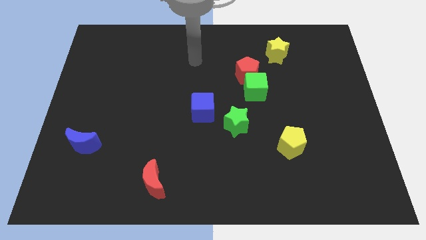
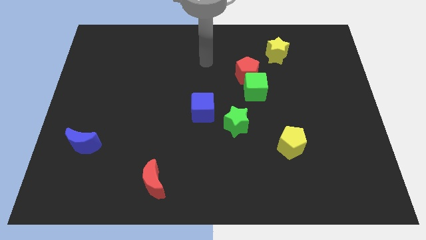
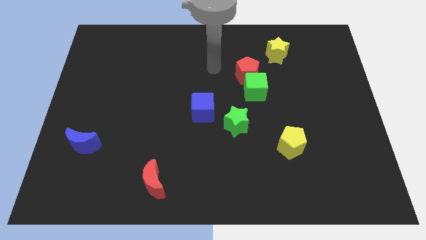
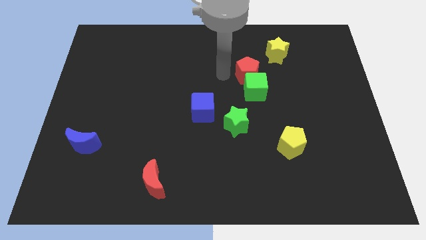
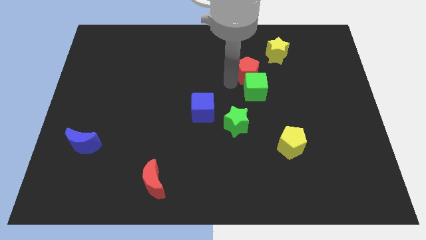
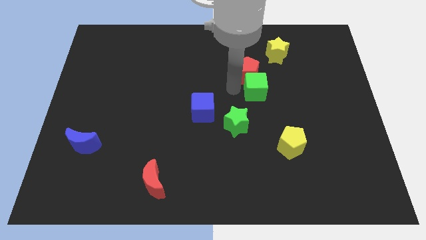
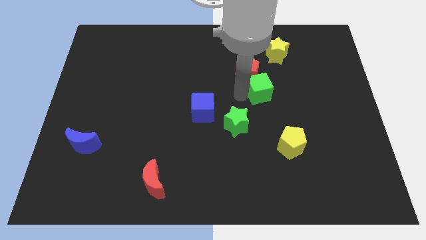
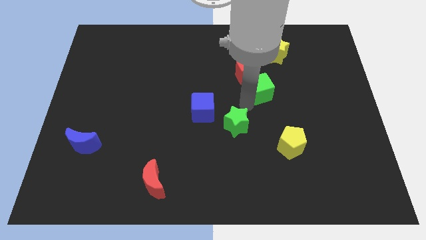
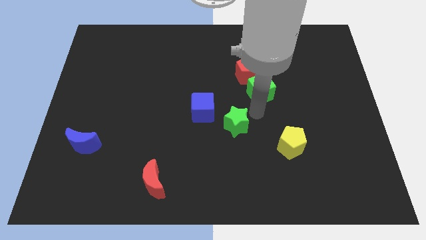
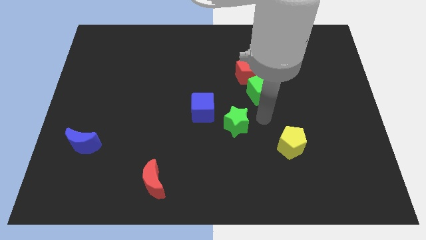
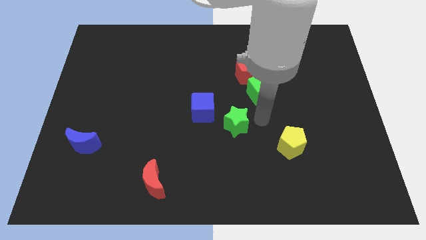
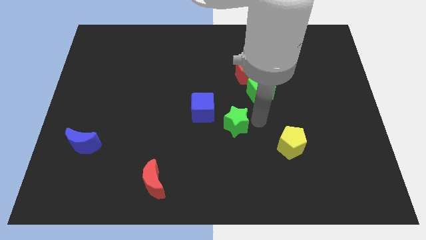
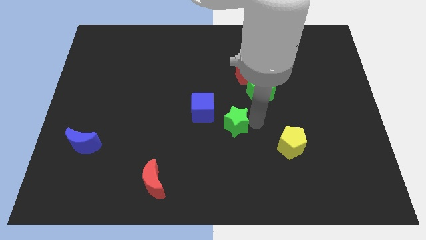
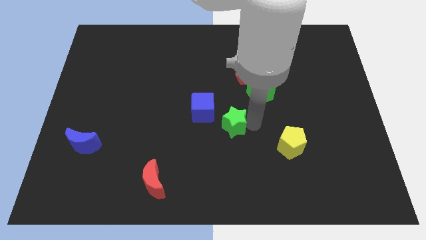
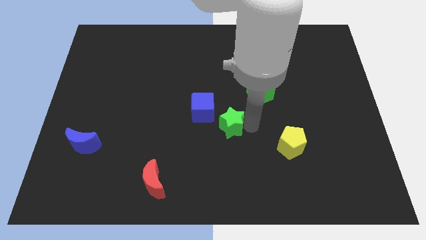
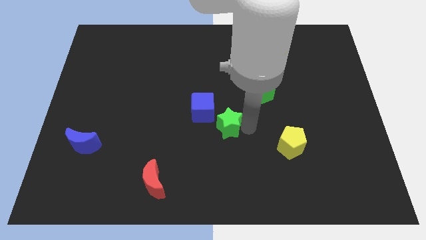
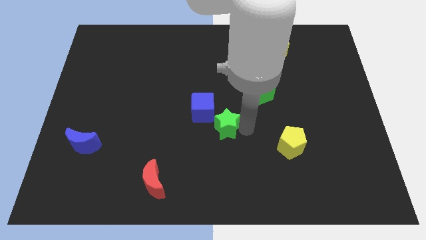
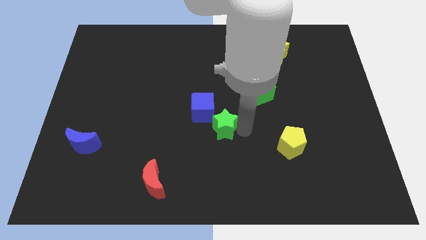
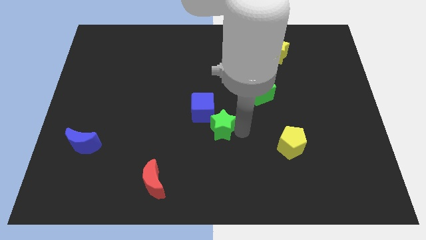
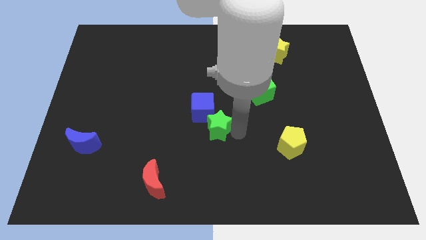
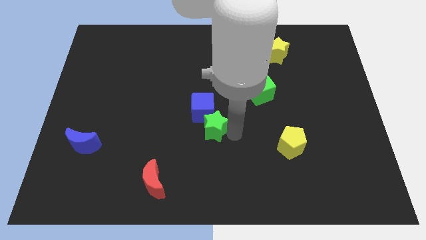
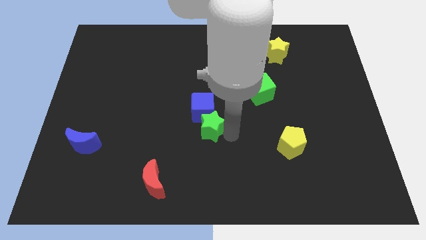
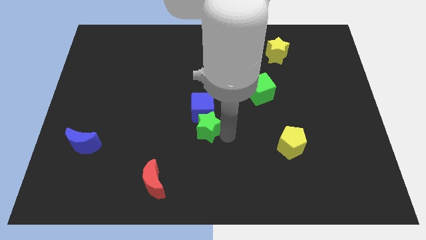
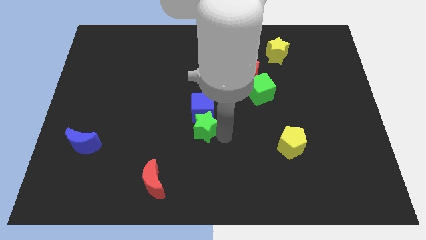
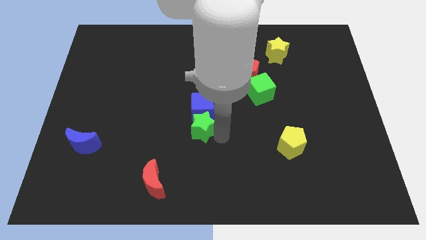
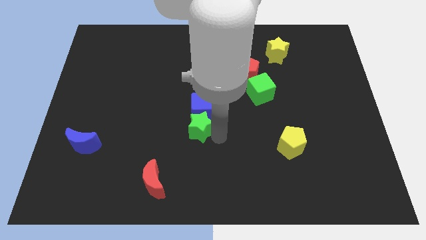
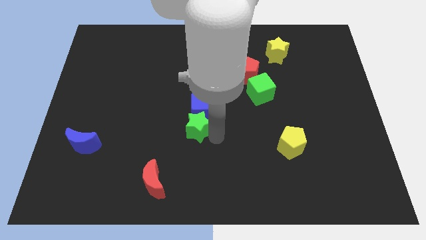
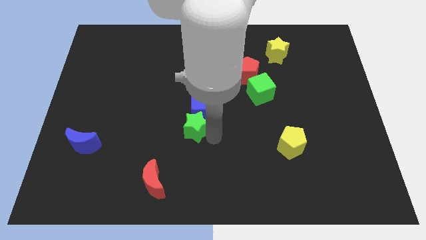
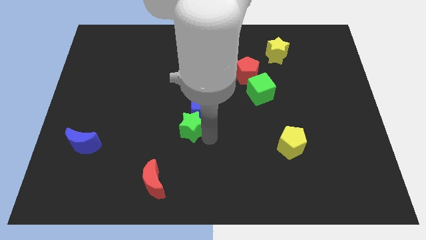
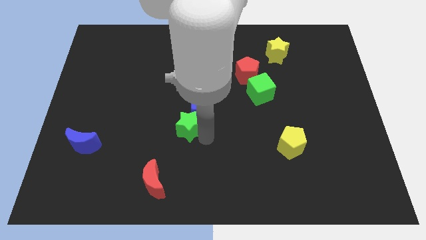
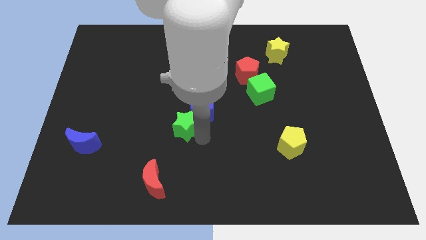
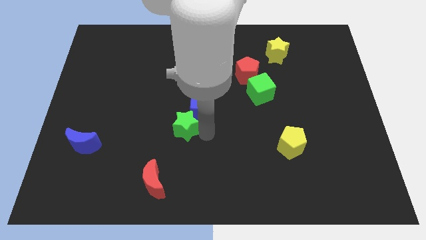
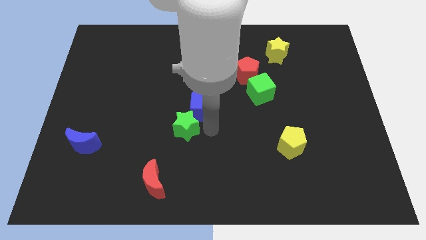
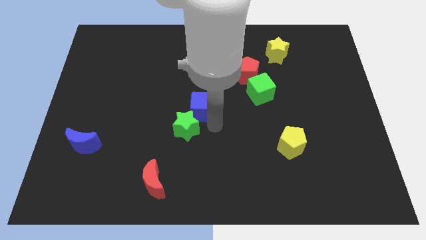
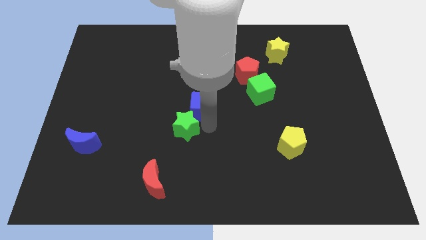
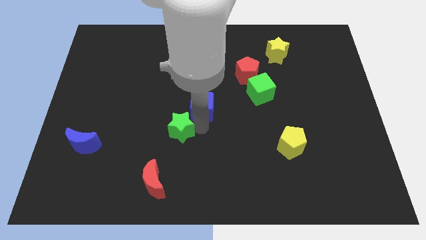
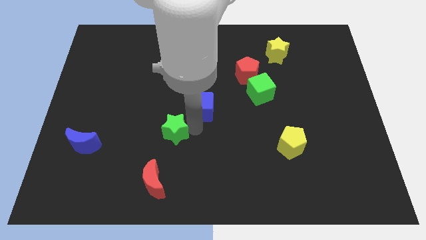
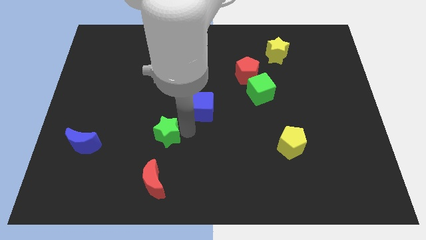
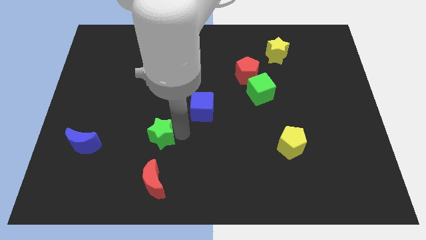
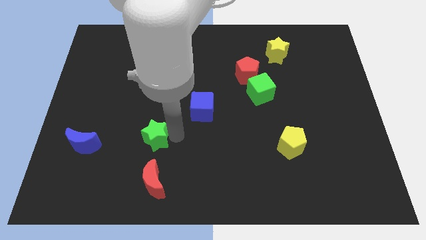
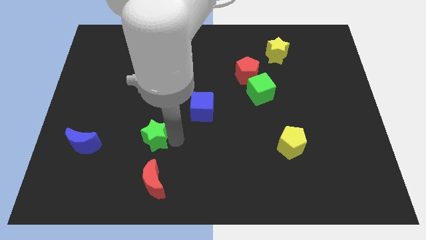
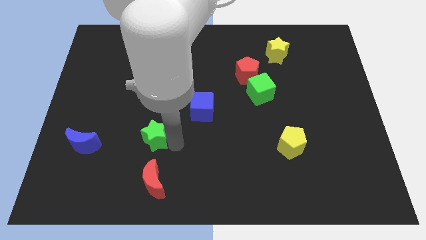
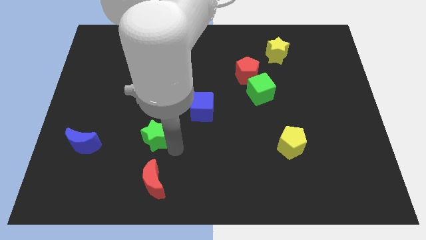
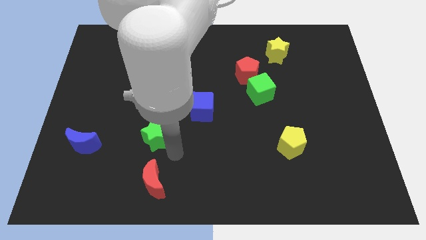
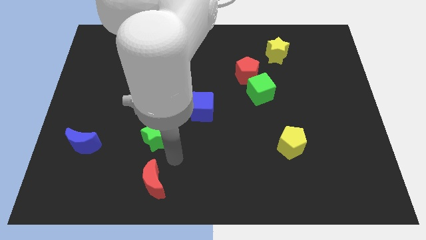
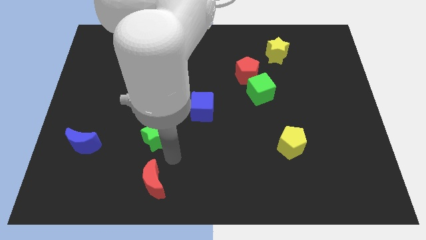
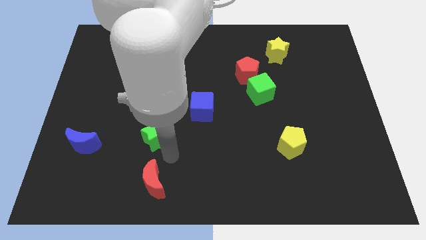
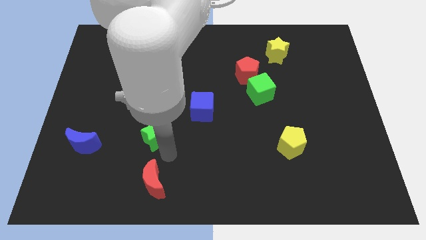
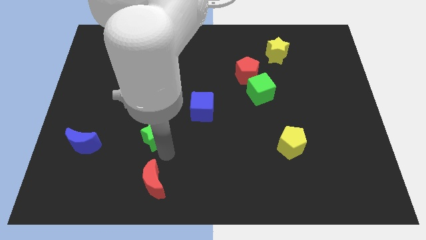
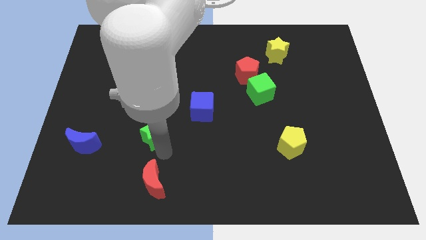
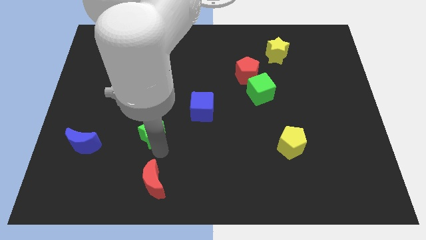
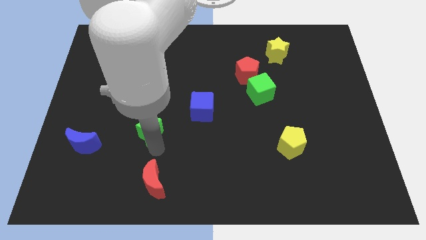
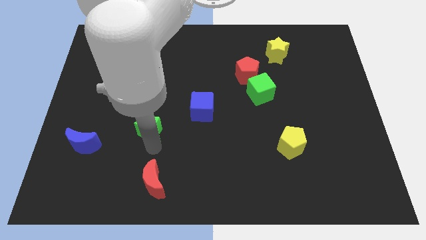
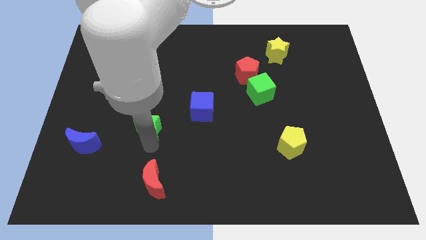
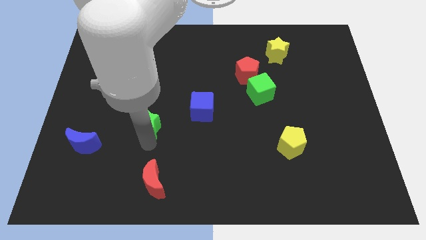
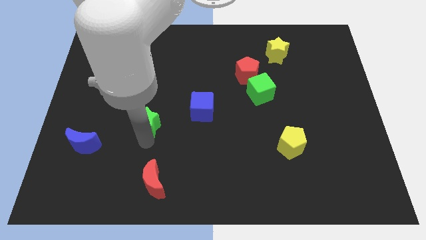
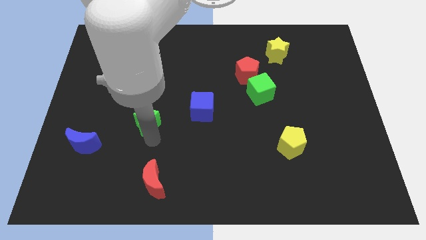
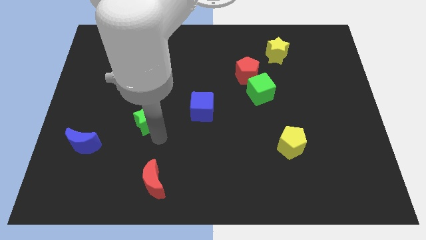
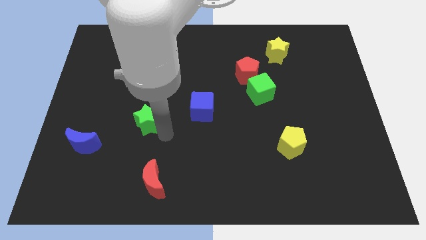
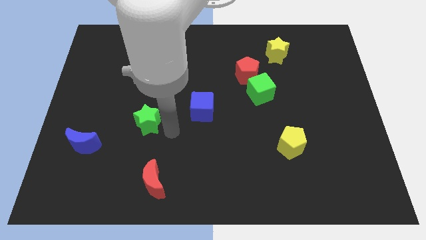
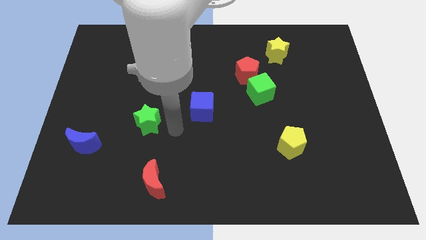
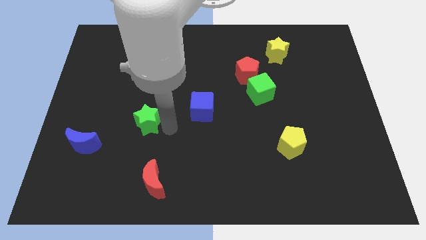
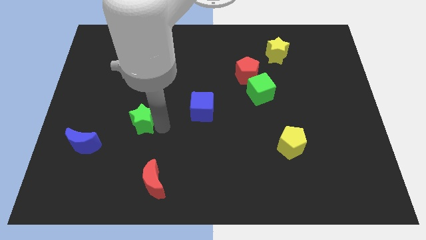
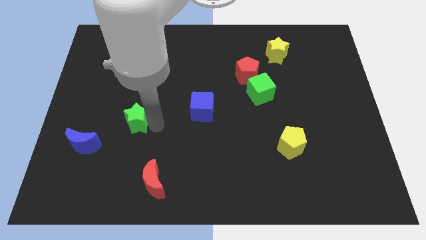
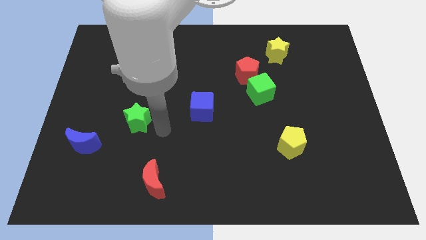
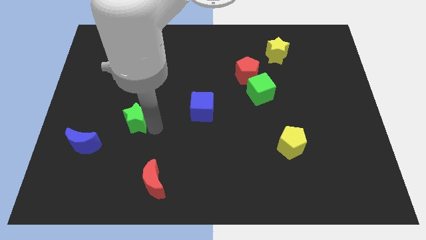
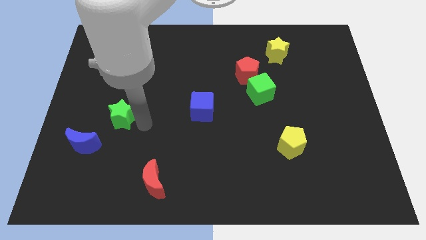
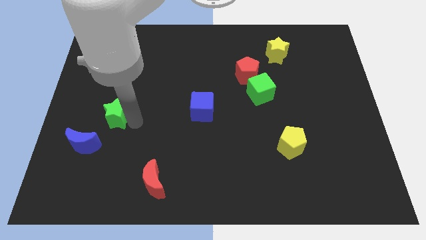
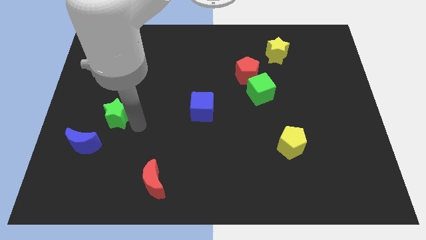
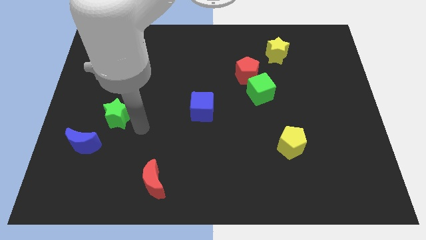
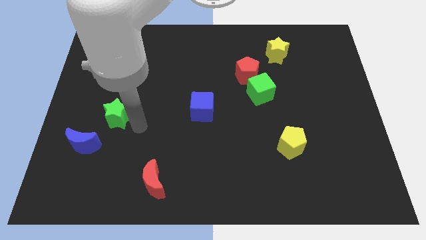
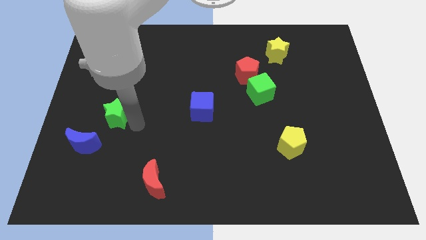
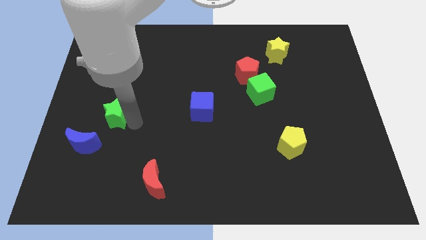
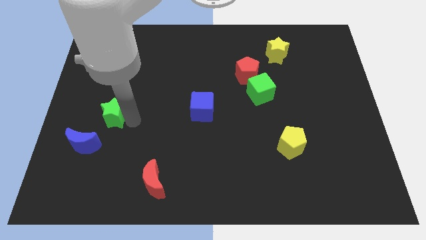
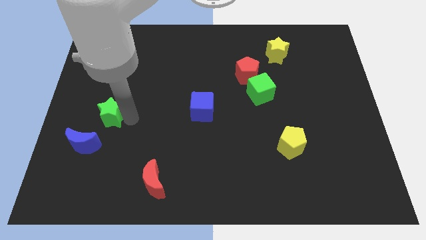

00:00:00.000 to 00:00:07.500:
move the green star to the top side of the blue moon

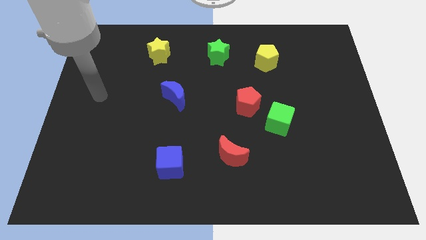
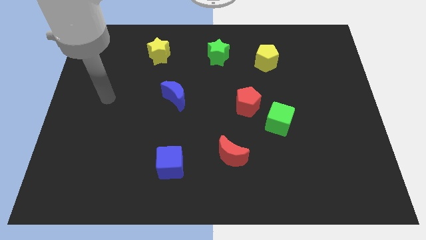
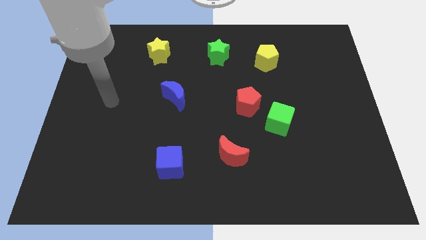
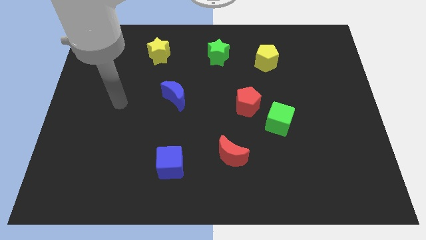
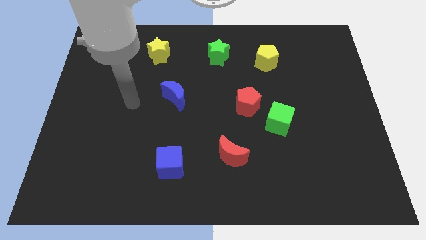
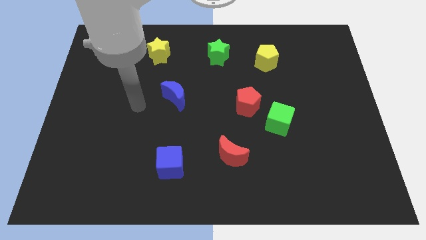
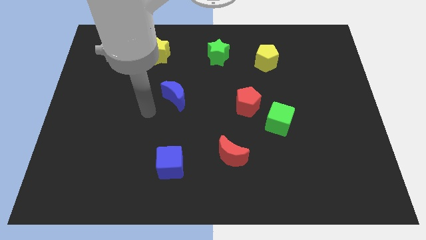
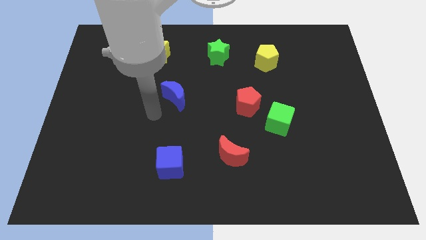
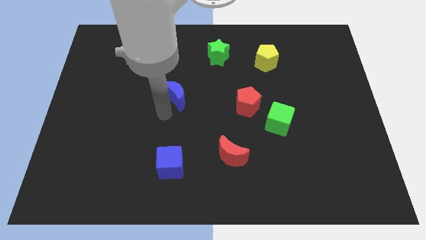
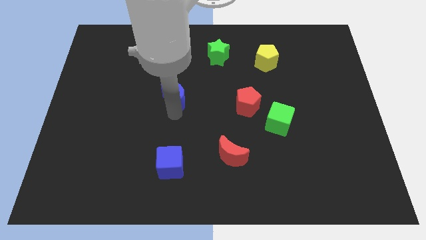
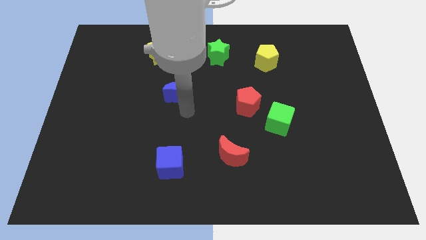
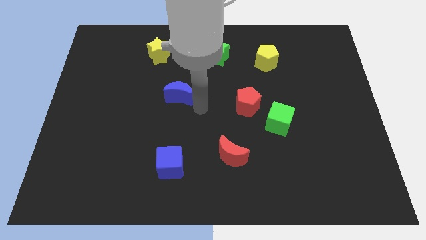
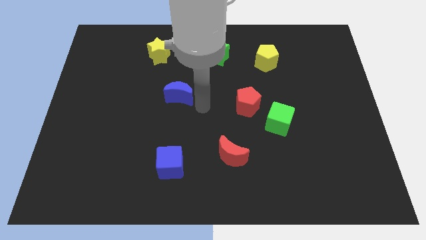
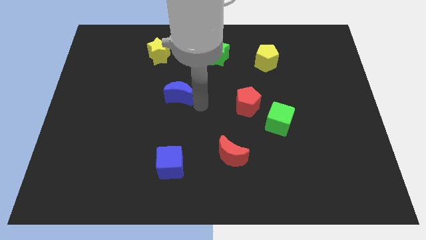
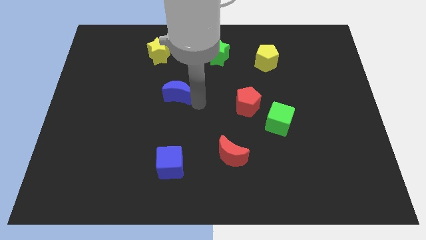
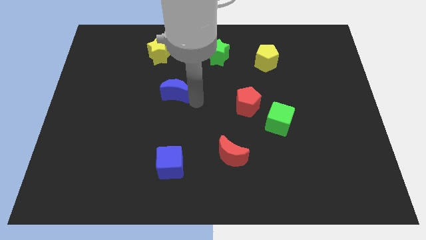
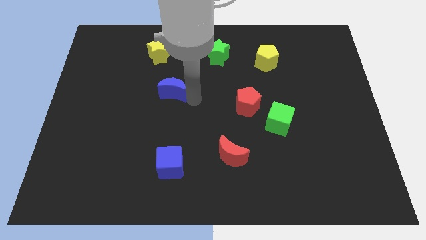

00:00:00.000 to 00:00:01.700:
slide the blue moon to the bottom of the yellow star
